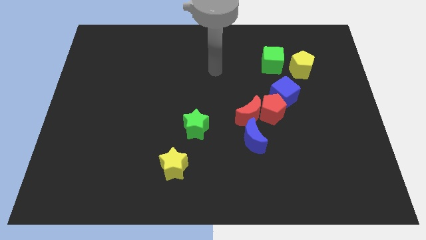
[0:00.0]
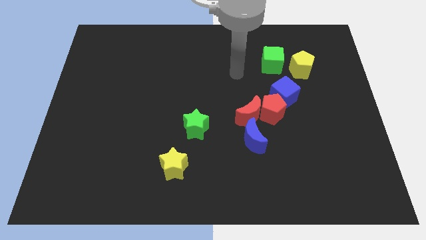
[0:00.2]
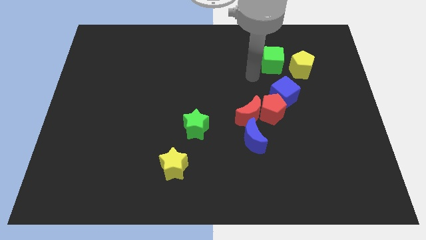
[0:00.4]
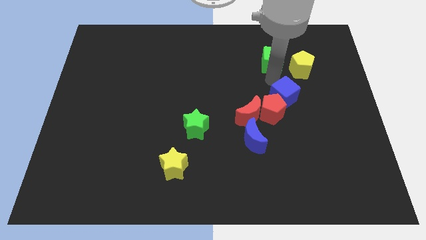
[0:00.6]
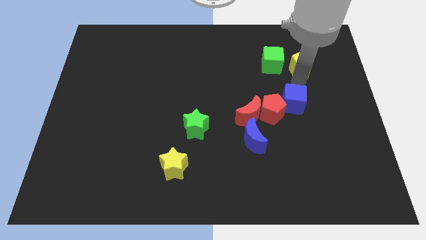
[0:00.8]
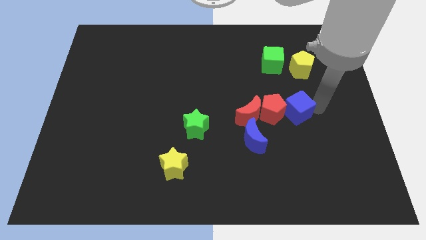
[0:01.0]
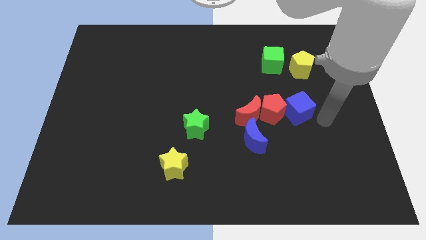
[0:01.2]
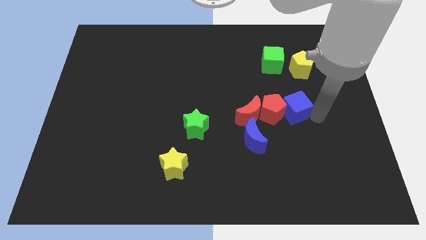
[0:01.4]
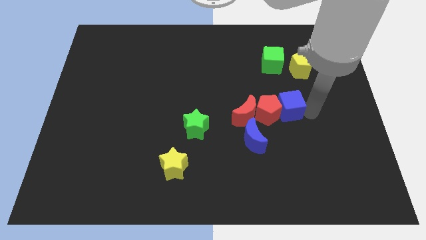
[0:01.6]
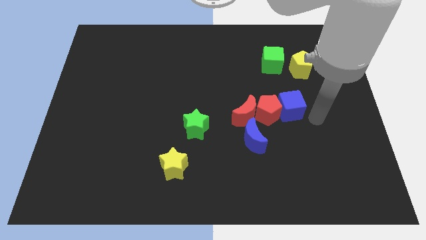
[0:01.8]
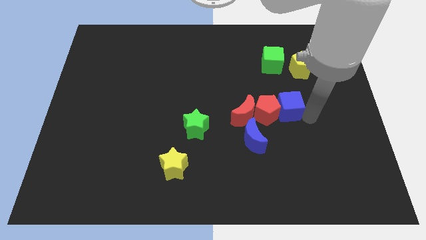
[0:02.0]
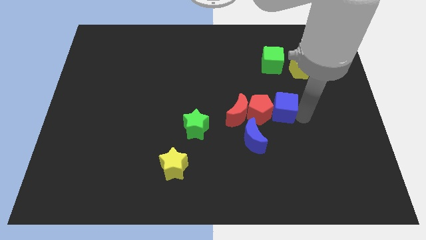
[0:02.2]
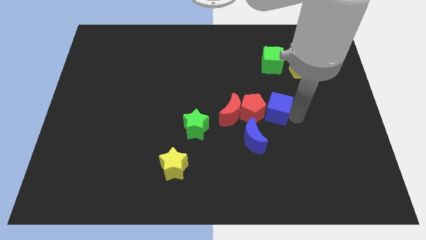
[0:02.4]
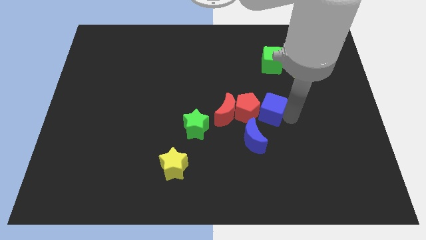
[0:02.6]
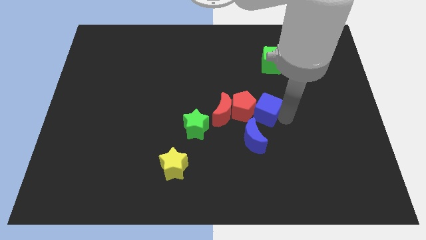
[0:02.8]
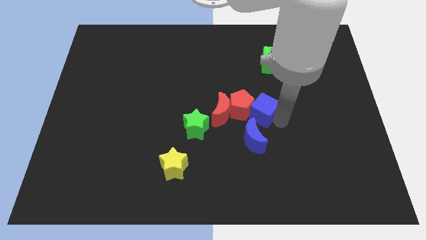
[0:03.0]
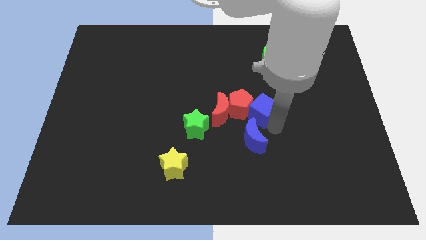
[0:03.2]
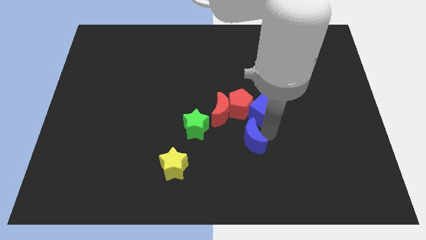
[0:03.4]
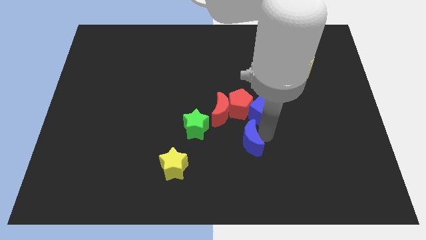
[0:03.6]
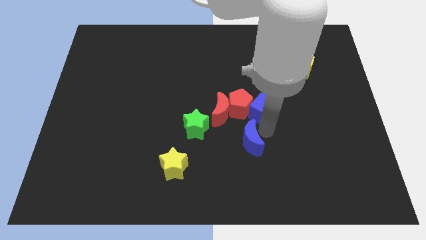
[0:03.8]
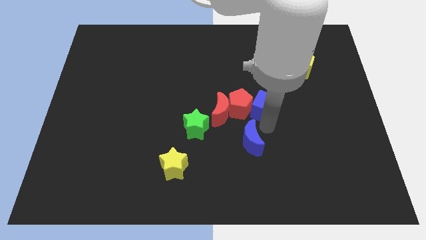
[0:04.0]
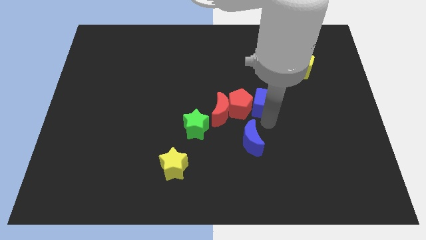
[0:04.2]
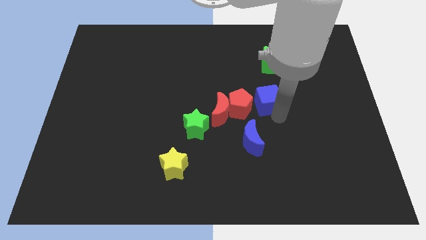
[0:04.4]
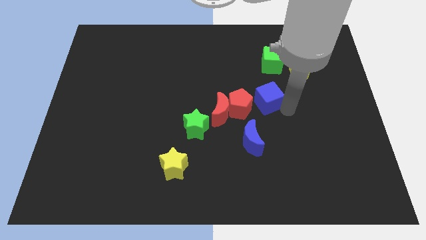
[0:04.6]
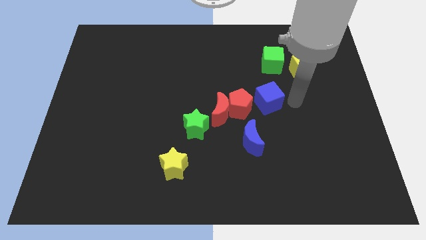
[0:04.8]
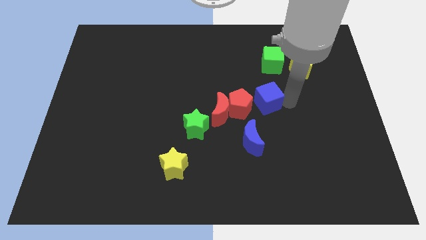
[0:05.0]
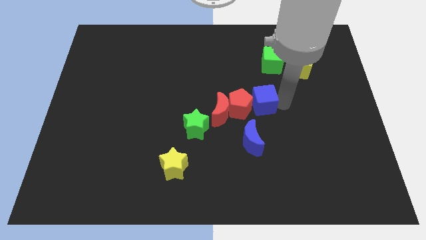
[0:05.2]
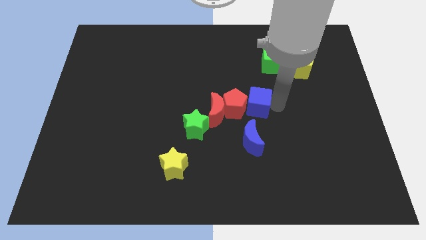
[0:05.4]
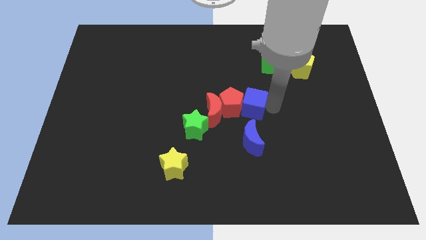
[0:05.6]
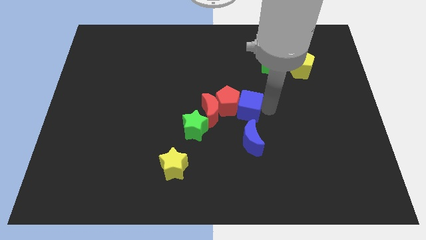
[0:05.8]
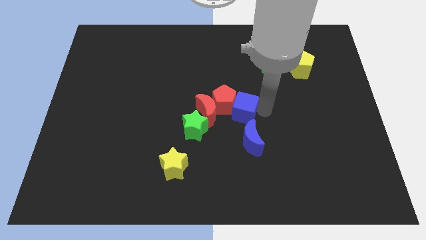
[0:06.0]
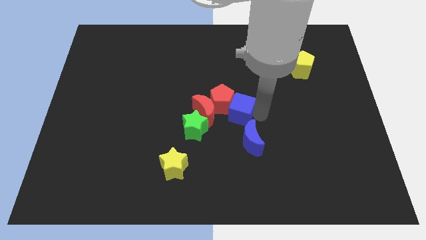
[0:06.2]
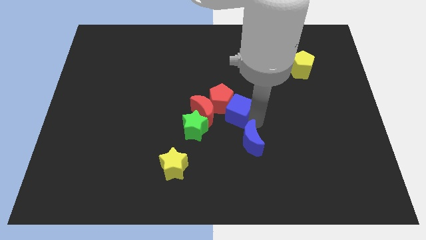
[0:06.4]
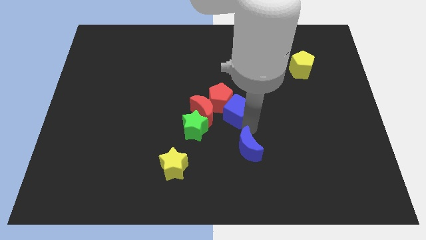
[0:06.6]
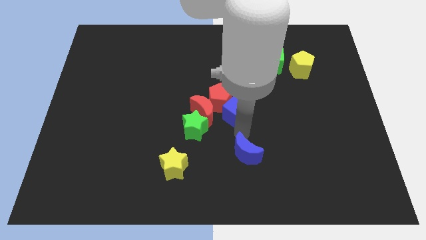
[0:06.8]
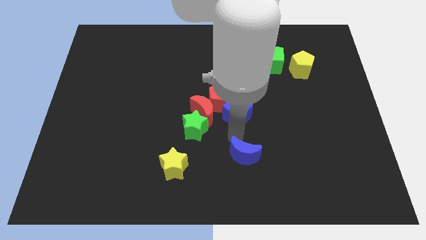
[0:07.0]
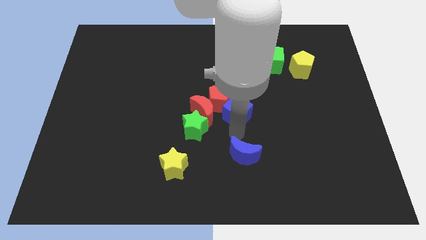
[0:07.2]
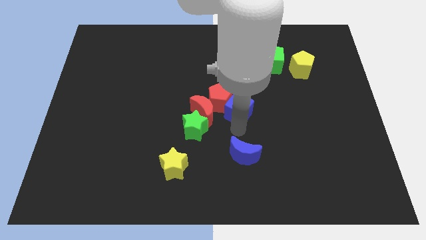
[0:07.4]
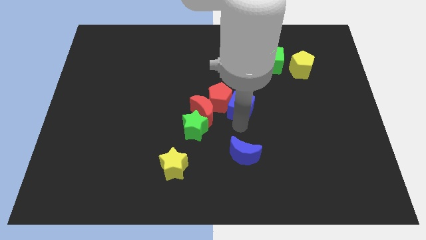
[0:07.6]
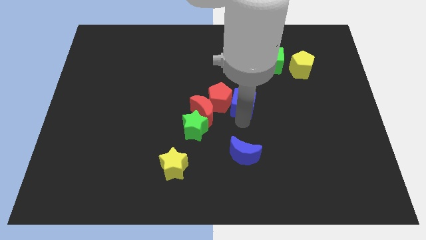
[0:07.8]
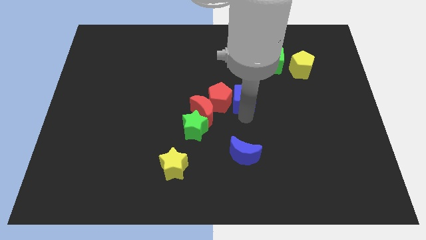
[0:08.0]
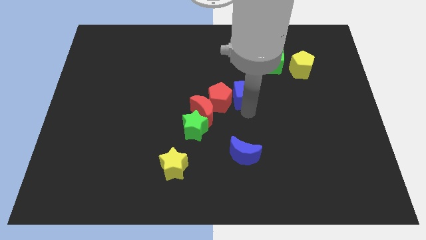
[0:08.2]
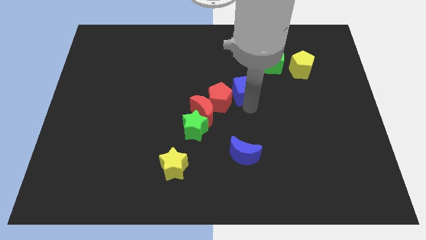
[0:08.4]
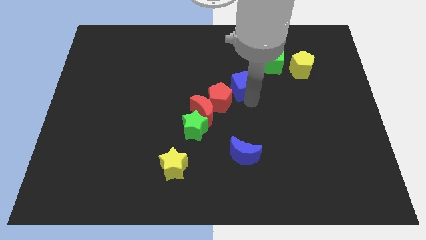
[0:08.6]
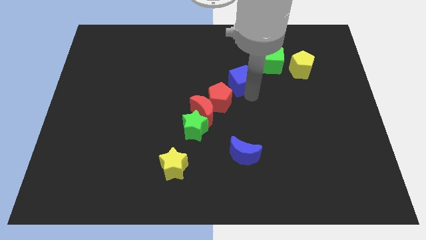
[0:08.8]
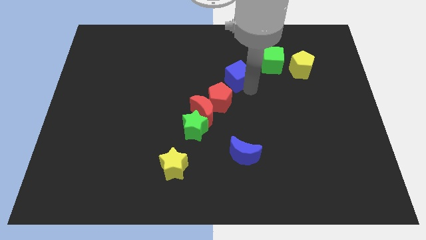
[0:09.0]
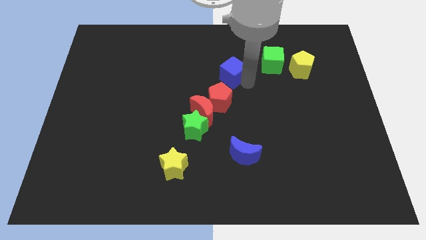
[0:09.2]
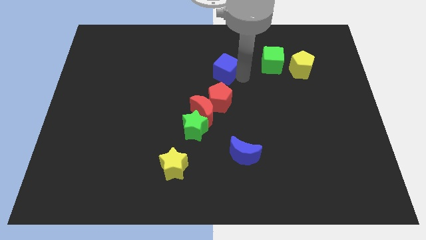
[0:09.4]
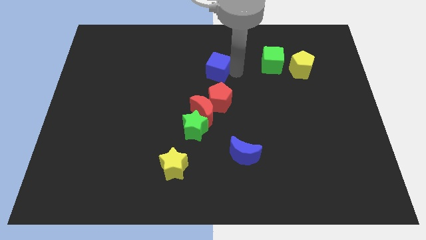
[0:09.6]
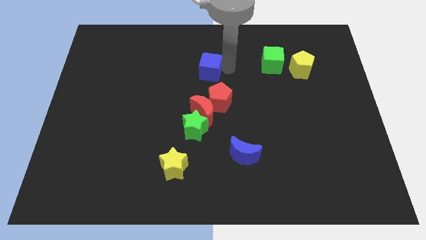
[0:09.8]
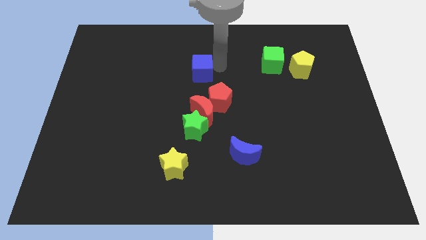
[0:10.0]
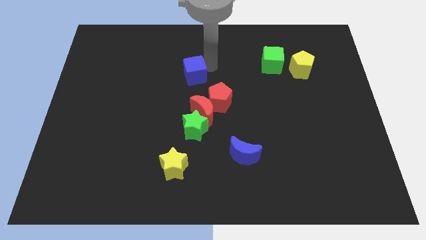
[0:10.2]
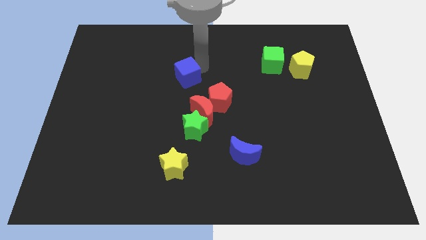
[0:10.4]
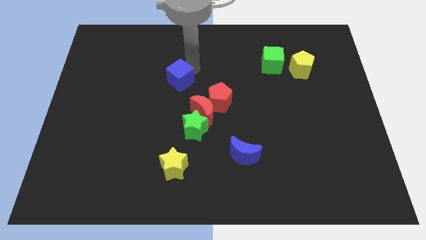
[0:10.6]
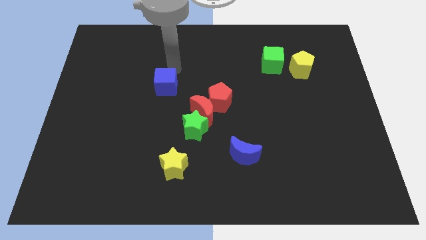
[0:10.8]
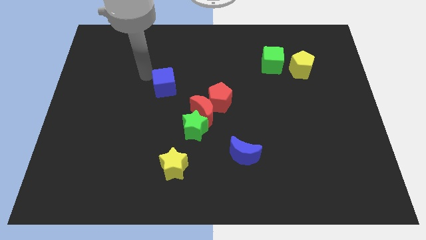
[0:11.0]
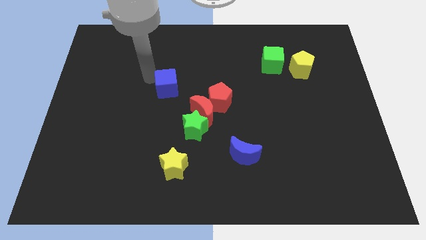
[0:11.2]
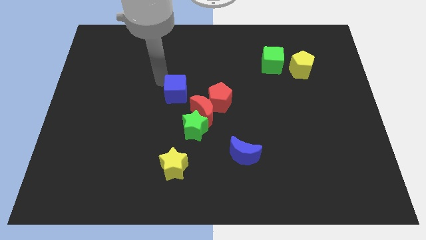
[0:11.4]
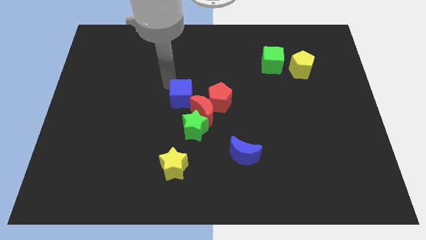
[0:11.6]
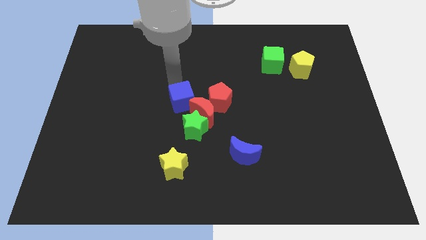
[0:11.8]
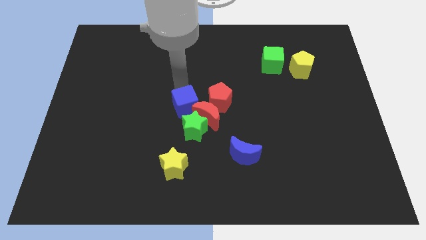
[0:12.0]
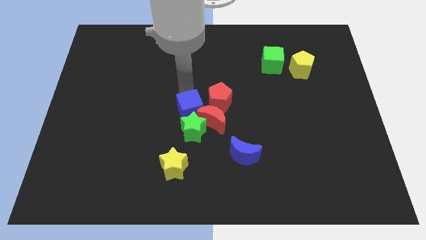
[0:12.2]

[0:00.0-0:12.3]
put the blue cube close to the green star

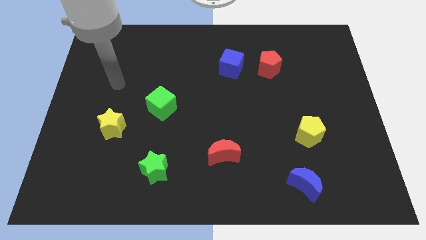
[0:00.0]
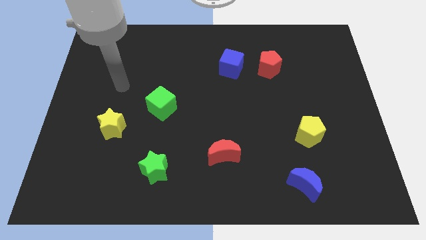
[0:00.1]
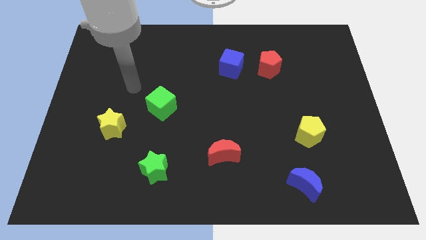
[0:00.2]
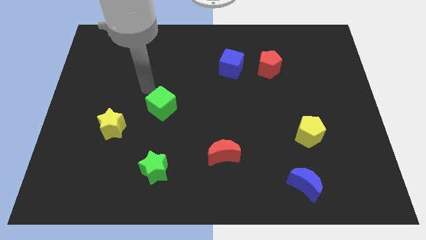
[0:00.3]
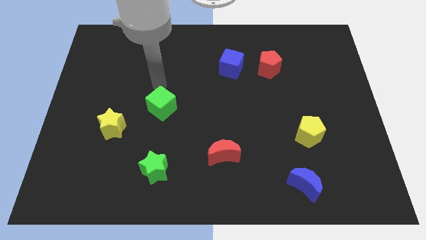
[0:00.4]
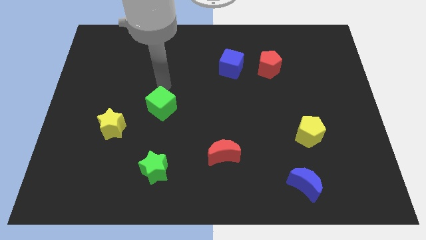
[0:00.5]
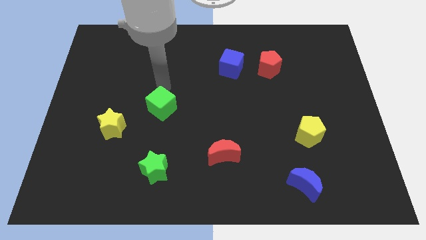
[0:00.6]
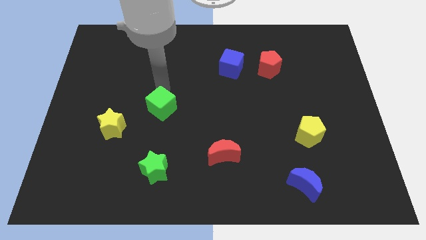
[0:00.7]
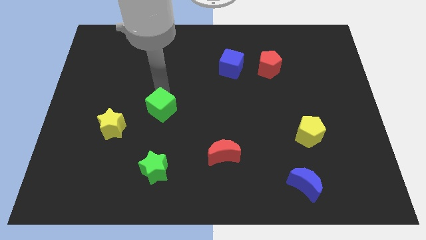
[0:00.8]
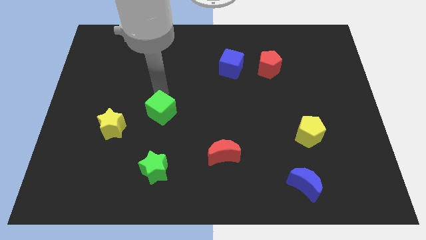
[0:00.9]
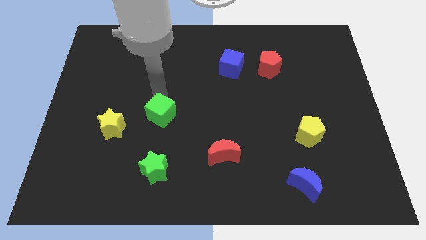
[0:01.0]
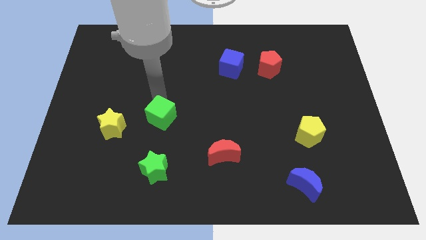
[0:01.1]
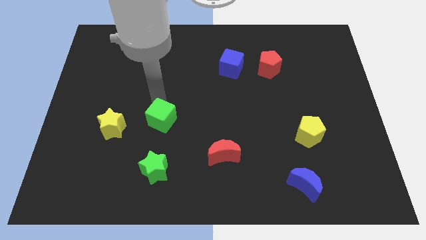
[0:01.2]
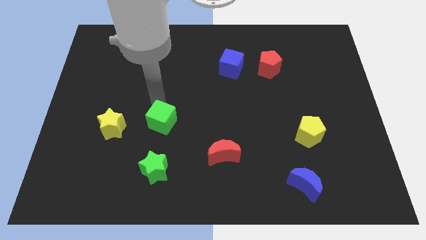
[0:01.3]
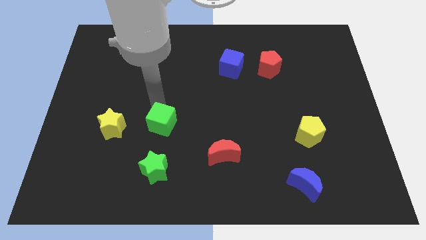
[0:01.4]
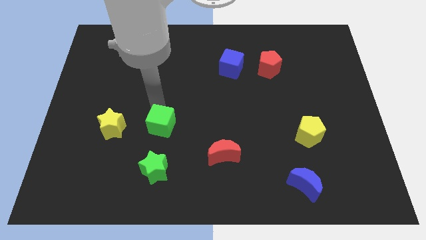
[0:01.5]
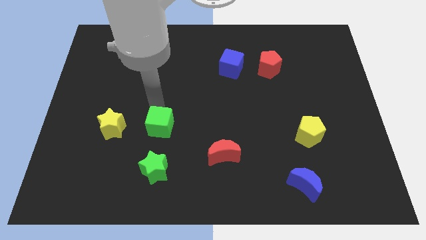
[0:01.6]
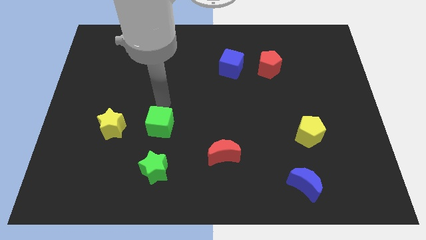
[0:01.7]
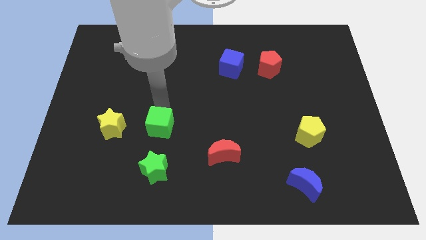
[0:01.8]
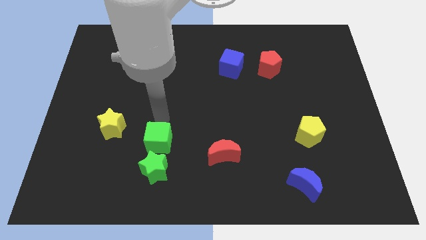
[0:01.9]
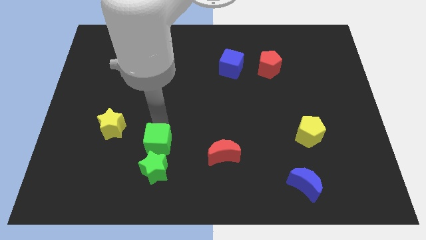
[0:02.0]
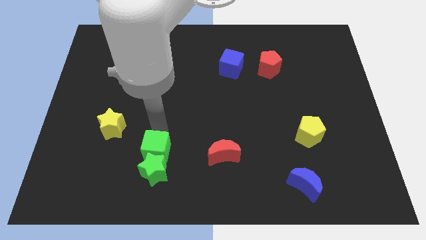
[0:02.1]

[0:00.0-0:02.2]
slide the green cube next to the green star
